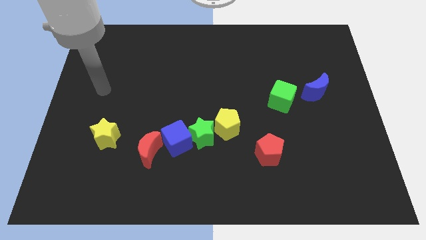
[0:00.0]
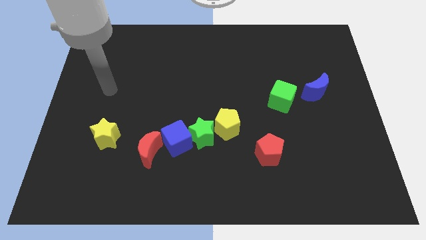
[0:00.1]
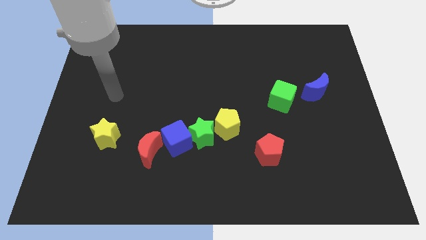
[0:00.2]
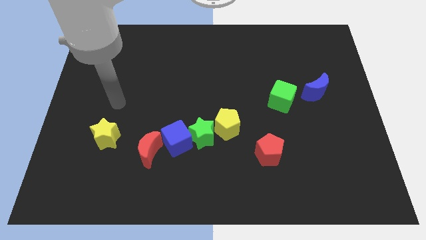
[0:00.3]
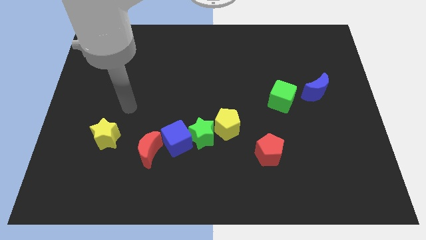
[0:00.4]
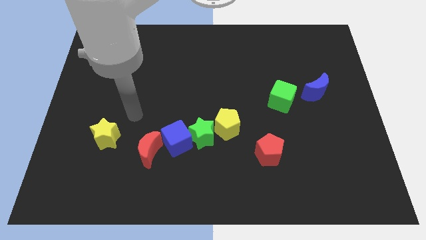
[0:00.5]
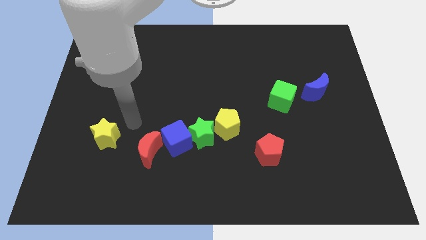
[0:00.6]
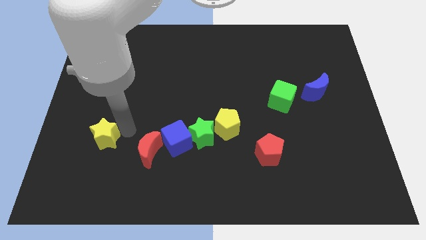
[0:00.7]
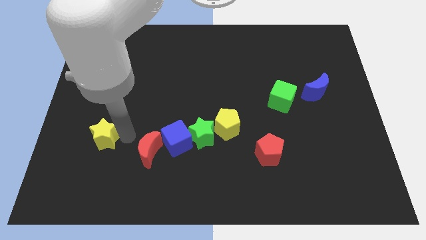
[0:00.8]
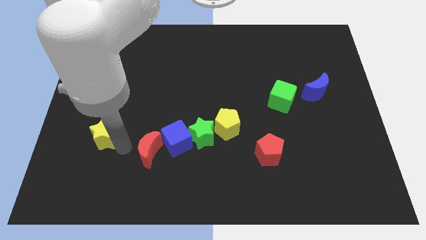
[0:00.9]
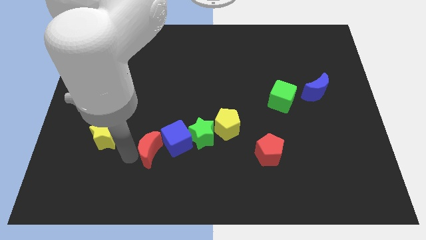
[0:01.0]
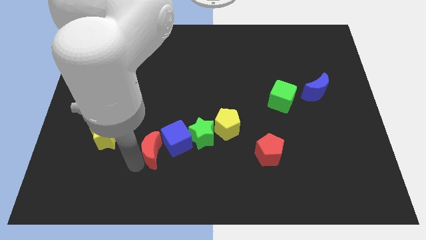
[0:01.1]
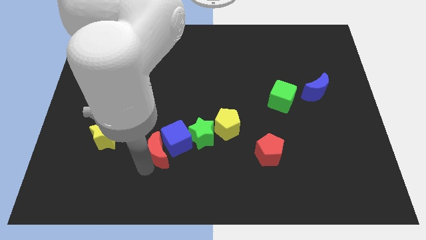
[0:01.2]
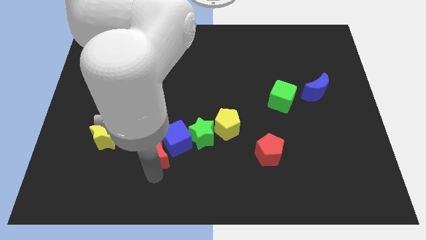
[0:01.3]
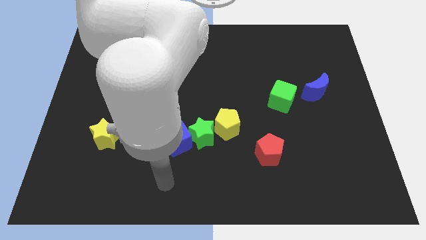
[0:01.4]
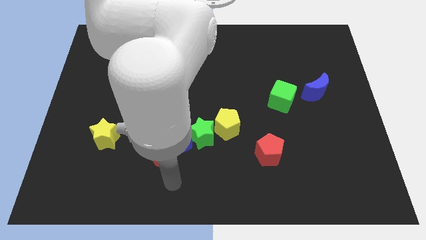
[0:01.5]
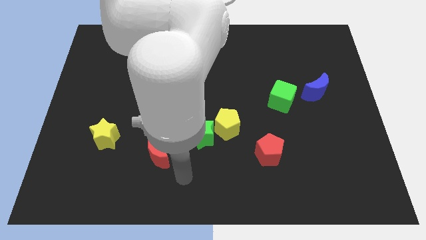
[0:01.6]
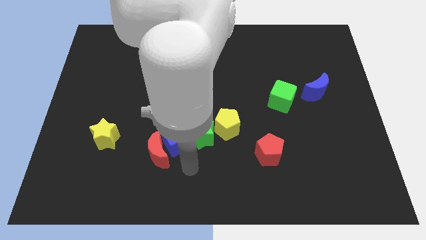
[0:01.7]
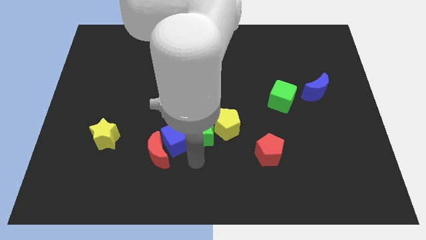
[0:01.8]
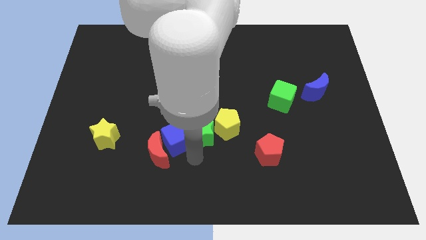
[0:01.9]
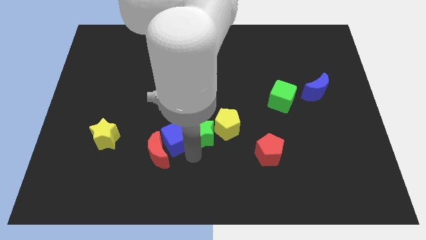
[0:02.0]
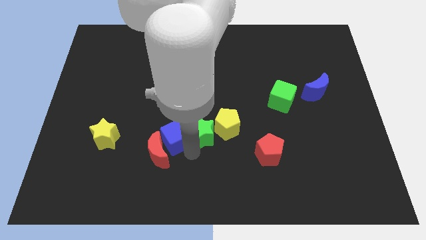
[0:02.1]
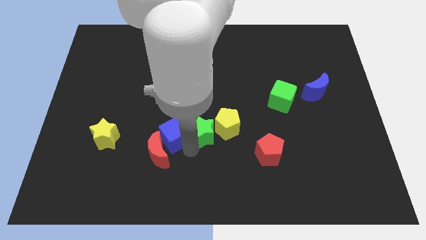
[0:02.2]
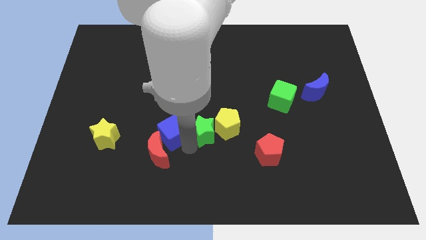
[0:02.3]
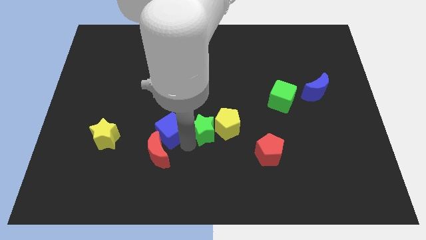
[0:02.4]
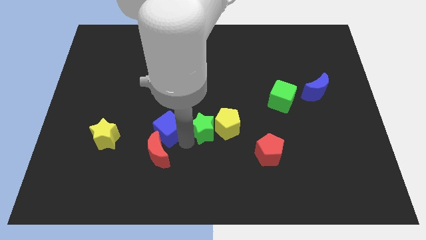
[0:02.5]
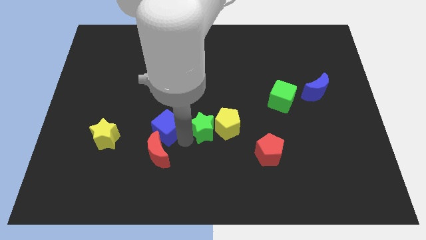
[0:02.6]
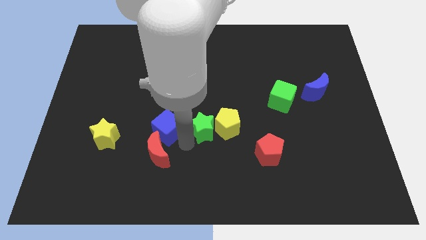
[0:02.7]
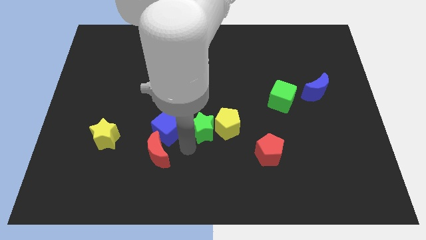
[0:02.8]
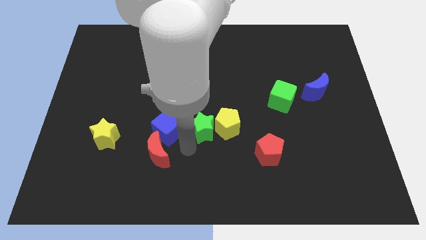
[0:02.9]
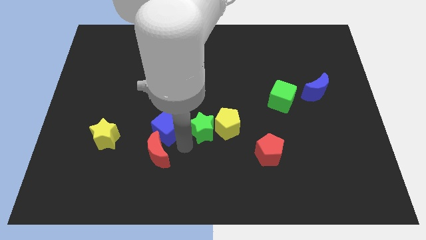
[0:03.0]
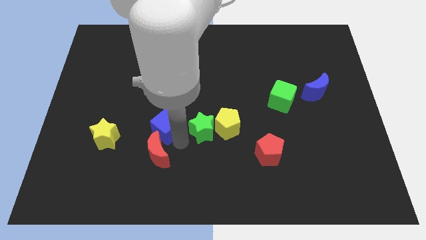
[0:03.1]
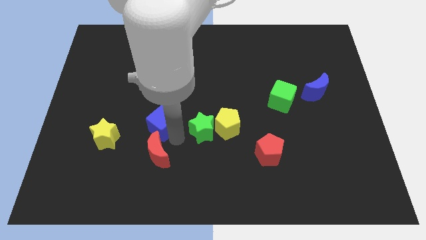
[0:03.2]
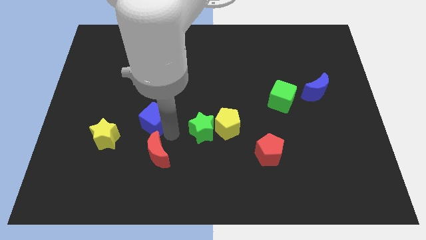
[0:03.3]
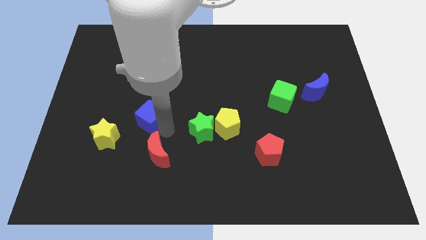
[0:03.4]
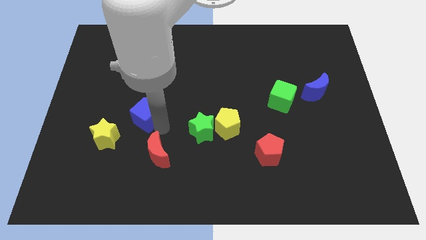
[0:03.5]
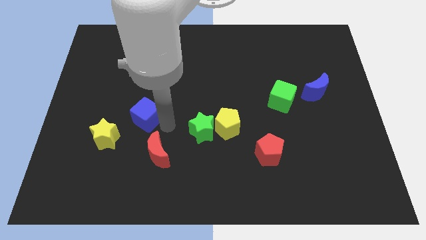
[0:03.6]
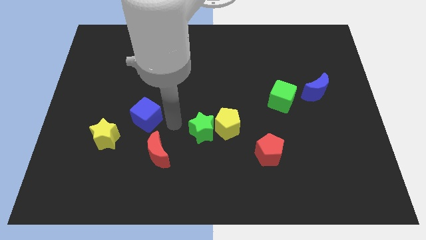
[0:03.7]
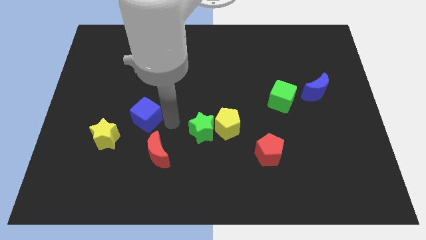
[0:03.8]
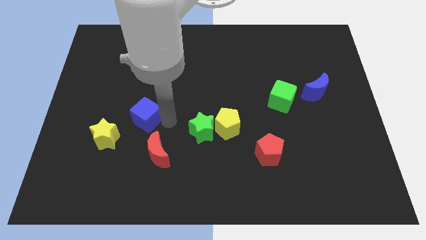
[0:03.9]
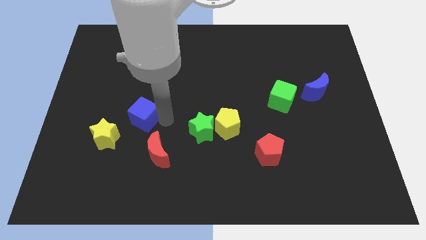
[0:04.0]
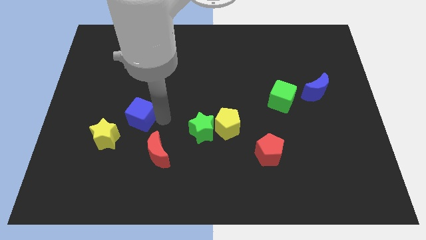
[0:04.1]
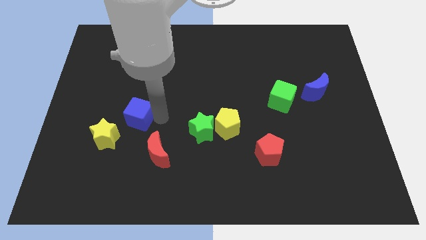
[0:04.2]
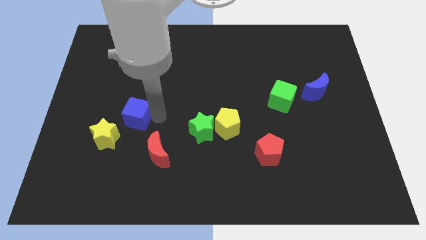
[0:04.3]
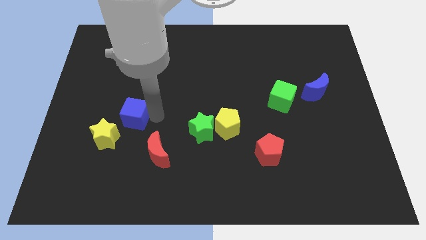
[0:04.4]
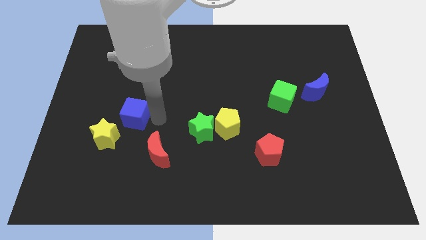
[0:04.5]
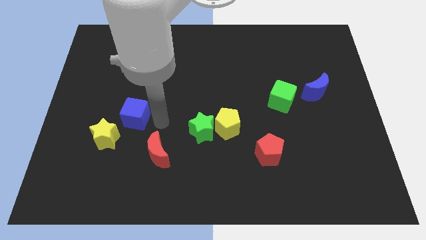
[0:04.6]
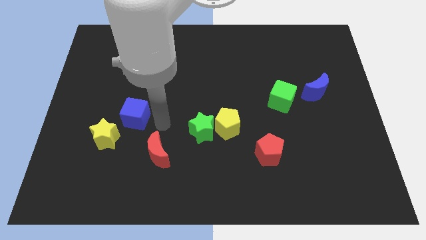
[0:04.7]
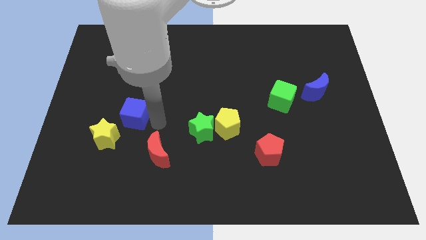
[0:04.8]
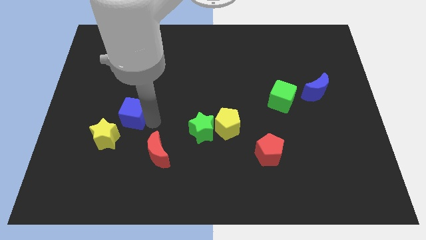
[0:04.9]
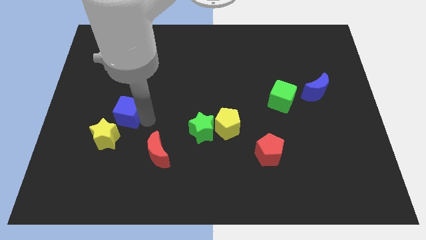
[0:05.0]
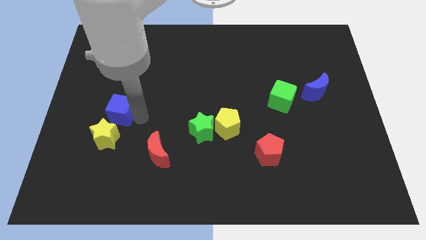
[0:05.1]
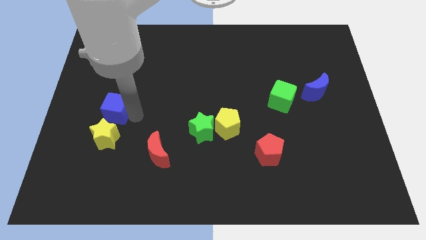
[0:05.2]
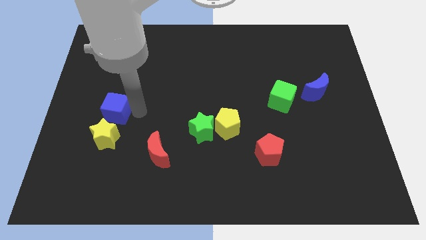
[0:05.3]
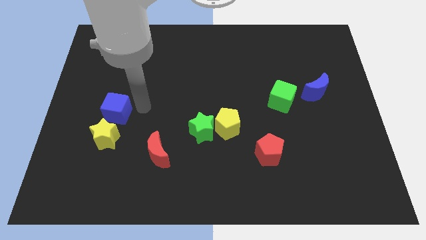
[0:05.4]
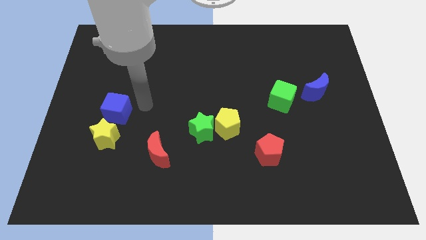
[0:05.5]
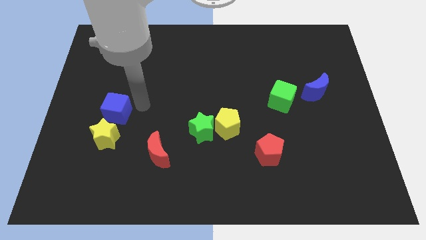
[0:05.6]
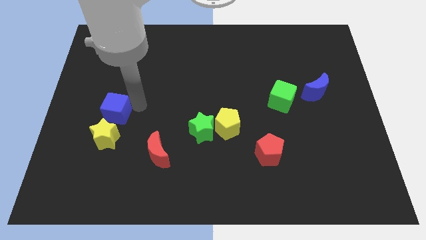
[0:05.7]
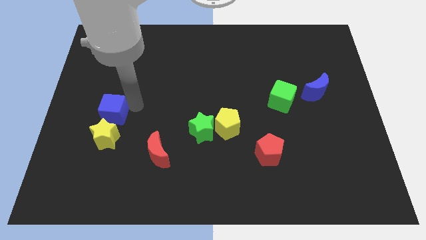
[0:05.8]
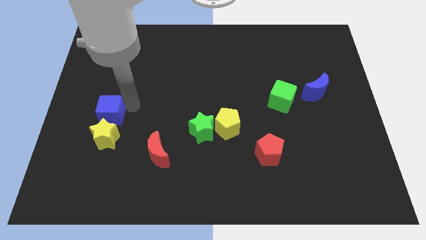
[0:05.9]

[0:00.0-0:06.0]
put the blue cube to the top left of the yellow star

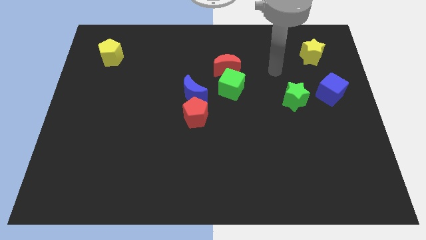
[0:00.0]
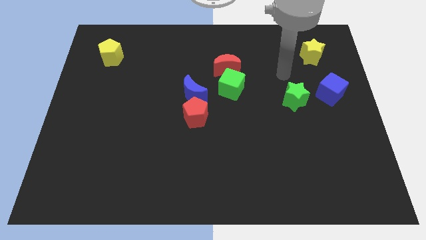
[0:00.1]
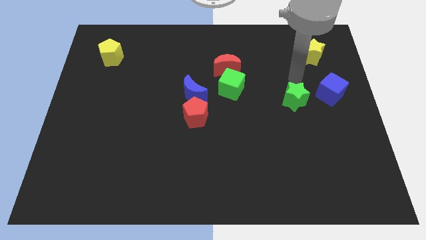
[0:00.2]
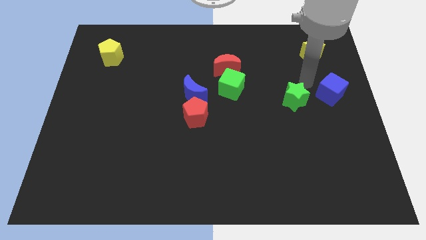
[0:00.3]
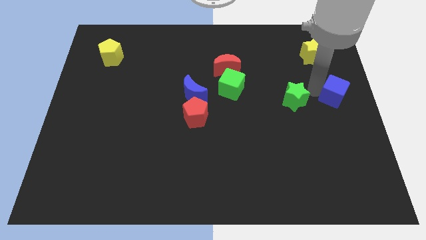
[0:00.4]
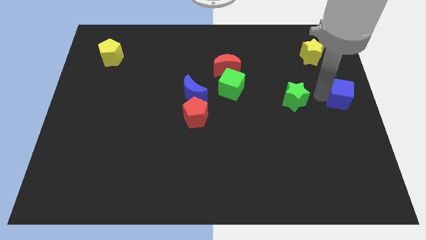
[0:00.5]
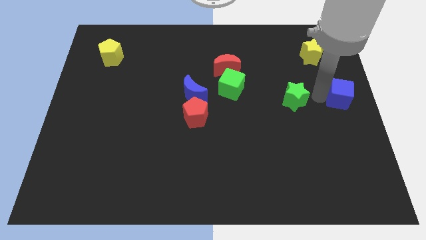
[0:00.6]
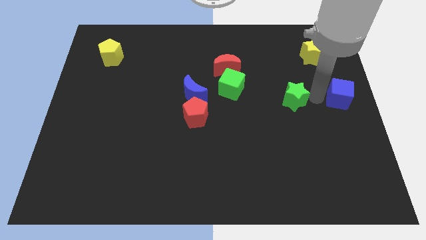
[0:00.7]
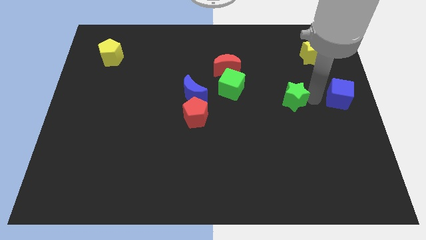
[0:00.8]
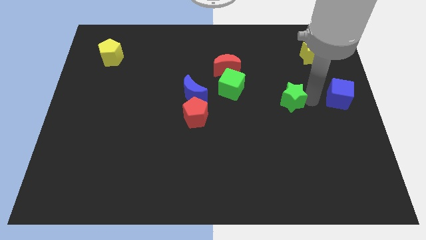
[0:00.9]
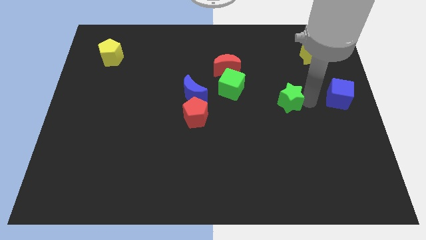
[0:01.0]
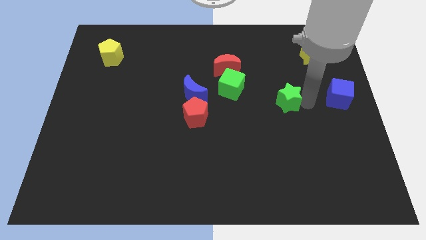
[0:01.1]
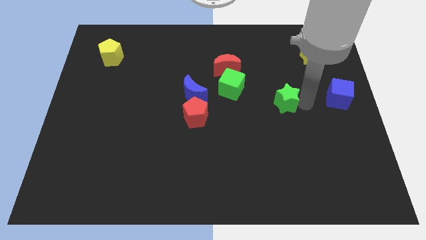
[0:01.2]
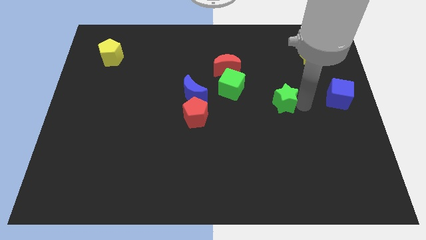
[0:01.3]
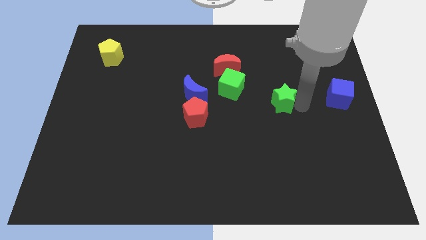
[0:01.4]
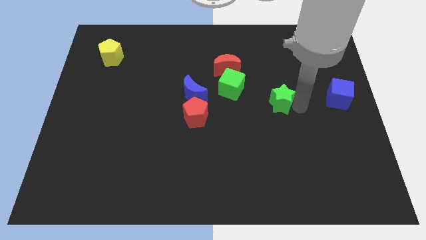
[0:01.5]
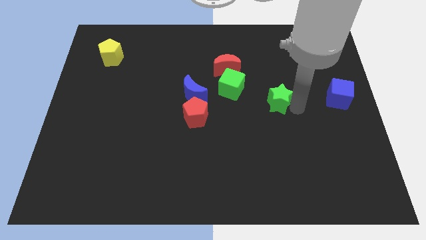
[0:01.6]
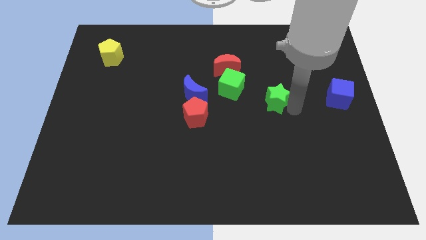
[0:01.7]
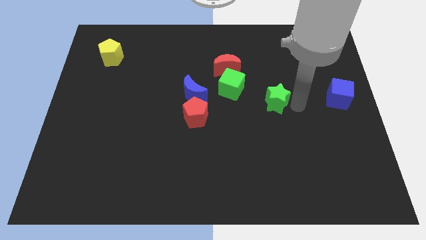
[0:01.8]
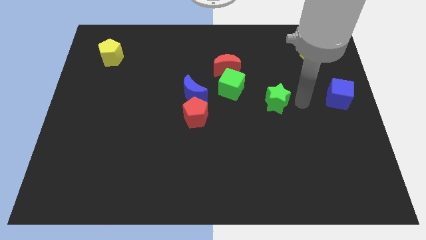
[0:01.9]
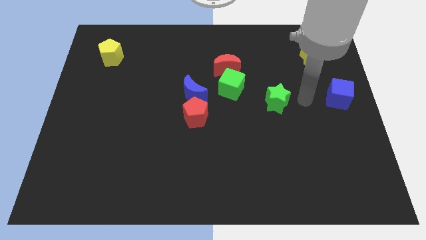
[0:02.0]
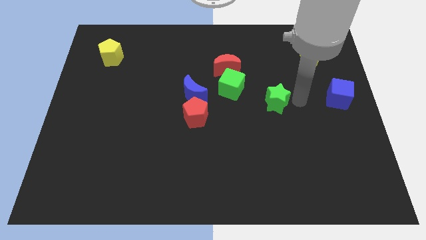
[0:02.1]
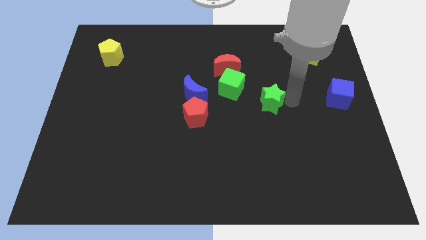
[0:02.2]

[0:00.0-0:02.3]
slide the green star to the bottom right side of the green cube
